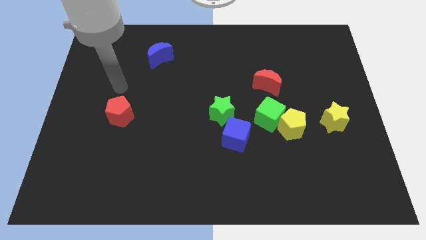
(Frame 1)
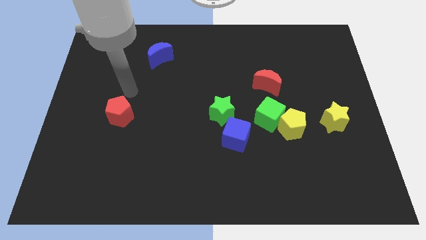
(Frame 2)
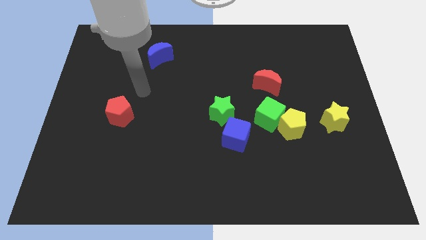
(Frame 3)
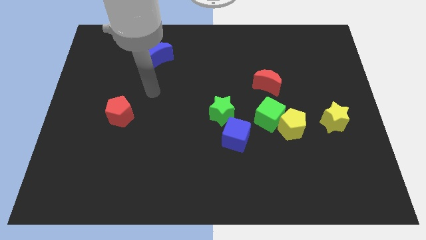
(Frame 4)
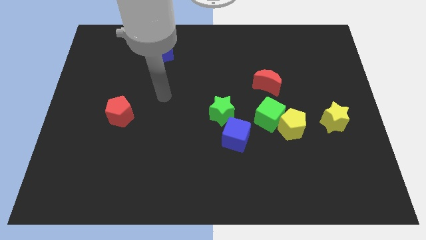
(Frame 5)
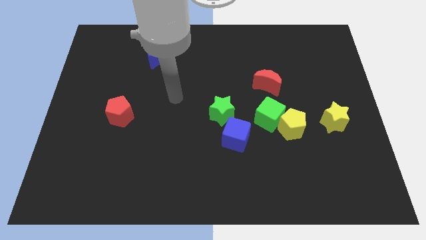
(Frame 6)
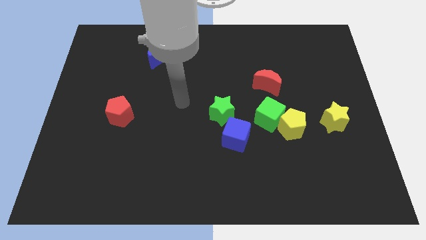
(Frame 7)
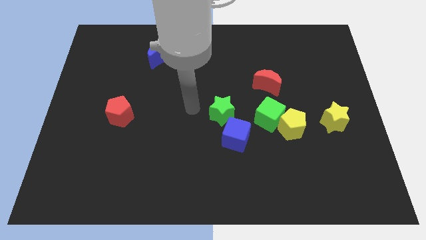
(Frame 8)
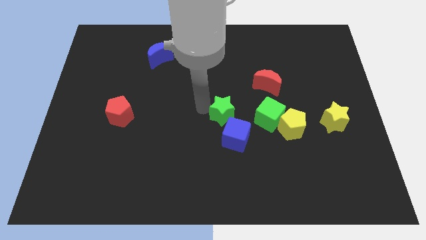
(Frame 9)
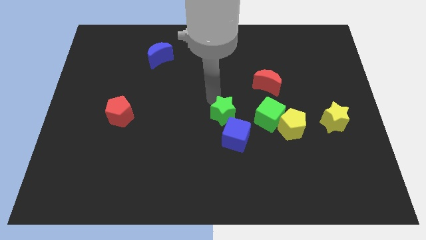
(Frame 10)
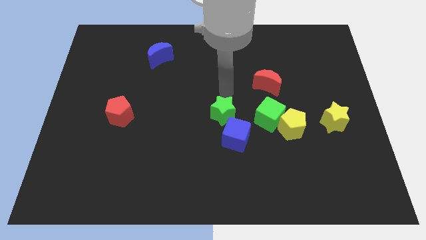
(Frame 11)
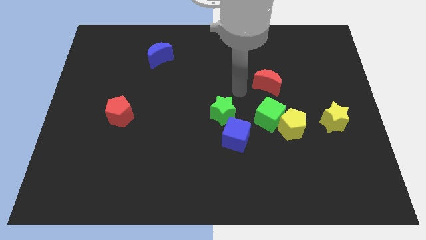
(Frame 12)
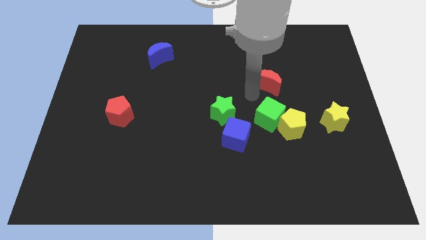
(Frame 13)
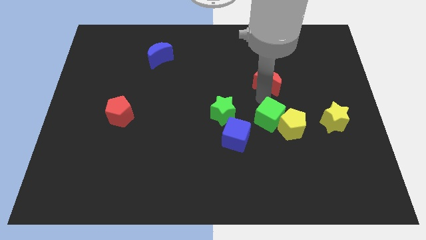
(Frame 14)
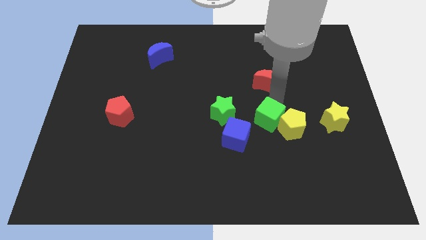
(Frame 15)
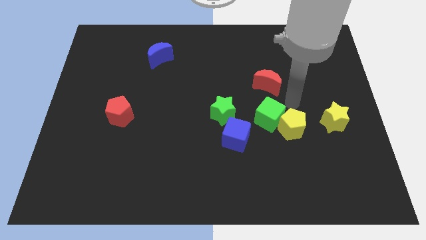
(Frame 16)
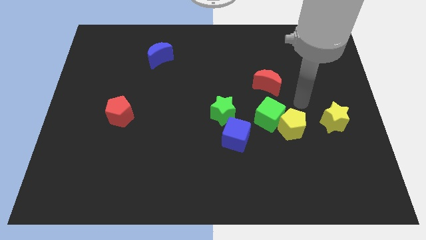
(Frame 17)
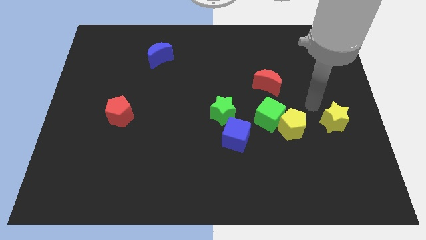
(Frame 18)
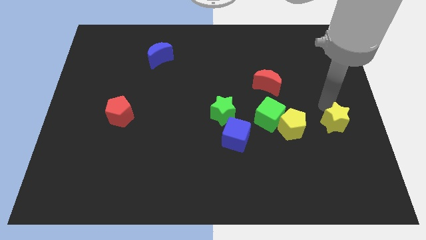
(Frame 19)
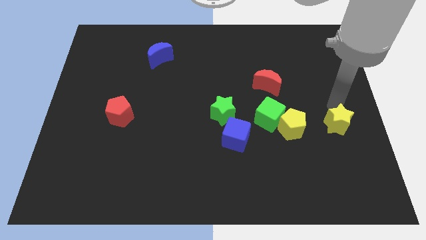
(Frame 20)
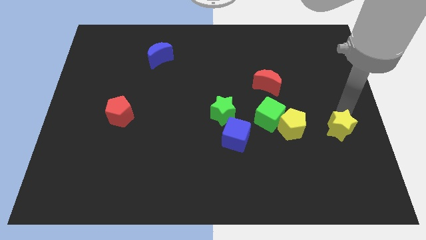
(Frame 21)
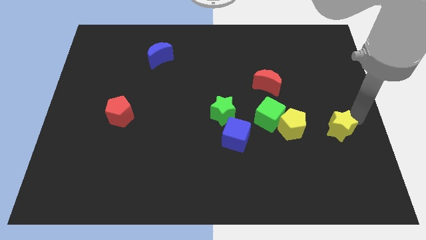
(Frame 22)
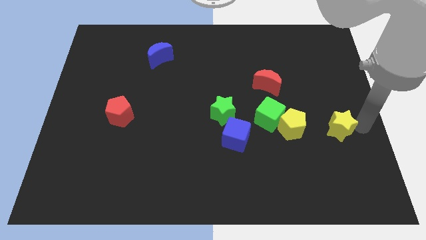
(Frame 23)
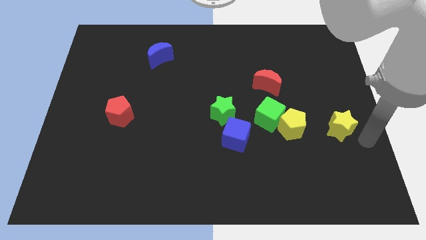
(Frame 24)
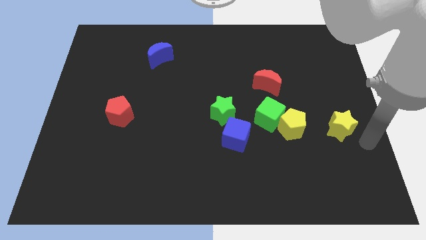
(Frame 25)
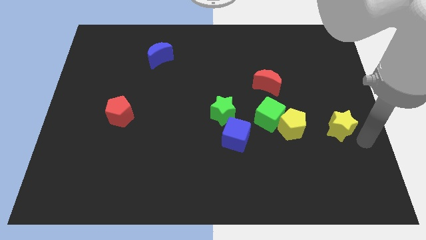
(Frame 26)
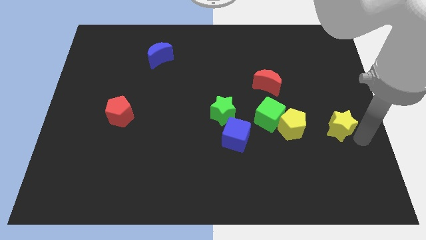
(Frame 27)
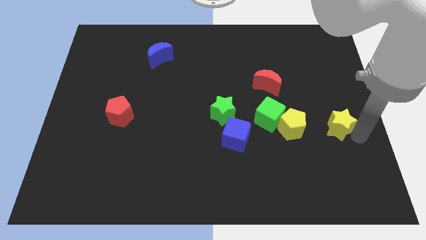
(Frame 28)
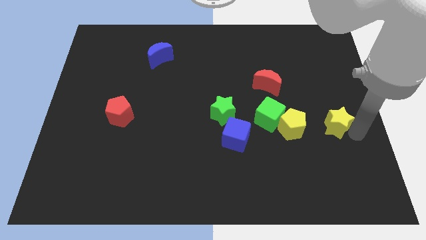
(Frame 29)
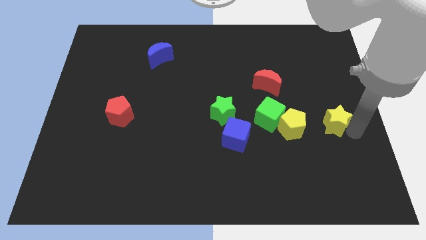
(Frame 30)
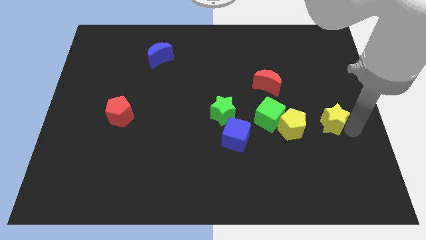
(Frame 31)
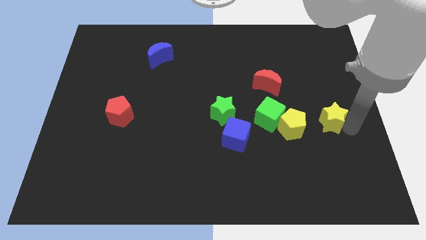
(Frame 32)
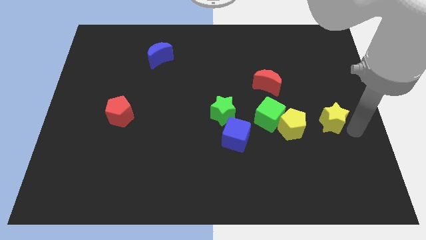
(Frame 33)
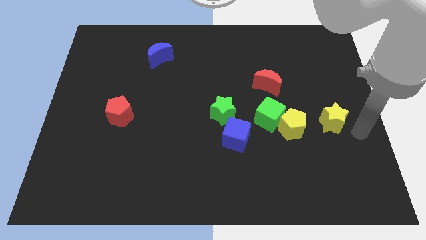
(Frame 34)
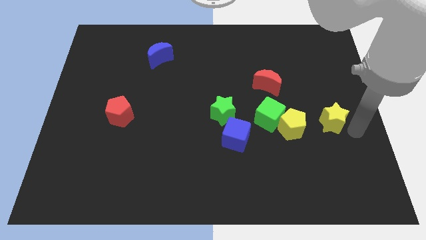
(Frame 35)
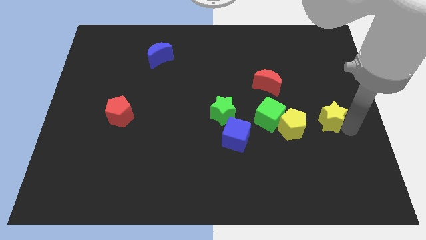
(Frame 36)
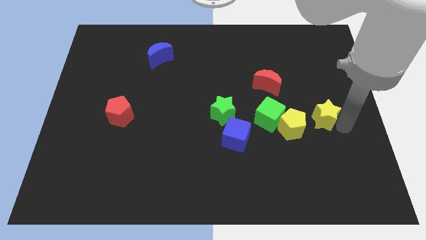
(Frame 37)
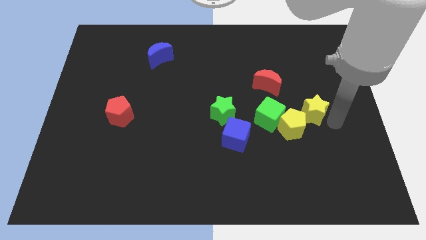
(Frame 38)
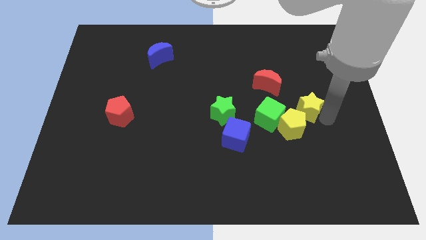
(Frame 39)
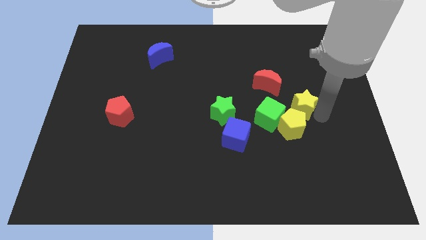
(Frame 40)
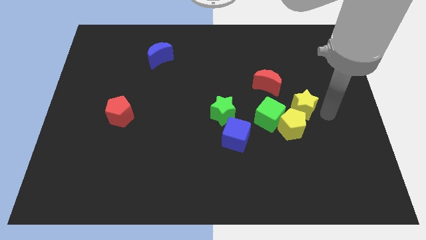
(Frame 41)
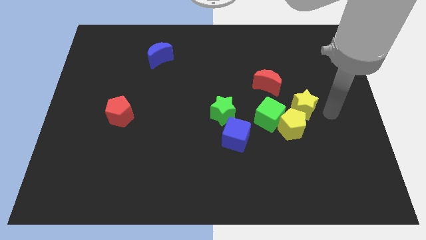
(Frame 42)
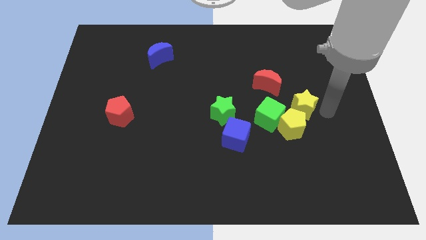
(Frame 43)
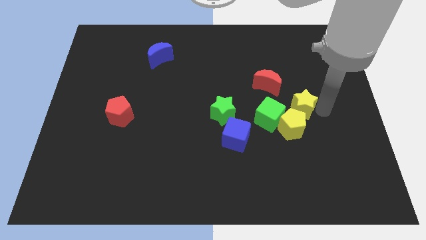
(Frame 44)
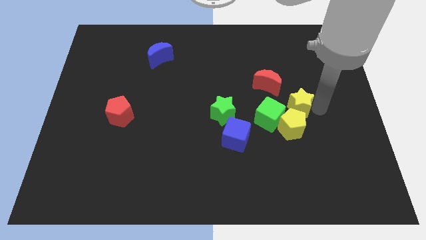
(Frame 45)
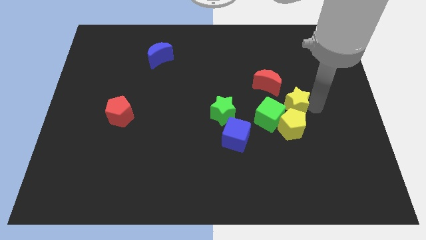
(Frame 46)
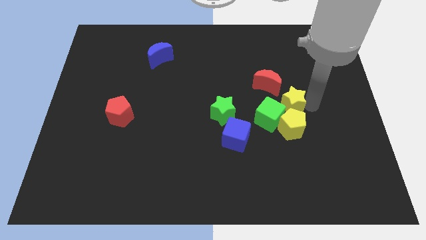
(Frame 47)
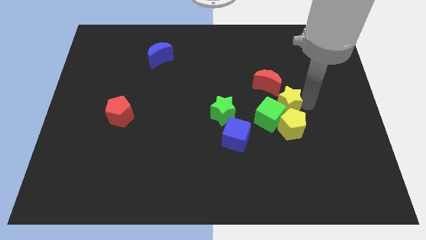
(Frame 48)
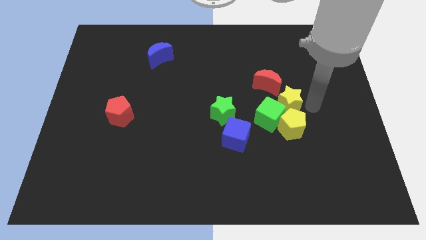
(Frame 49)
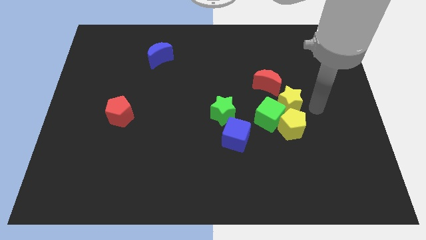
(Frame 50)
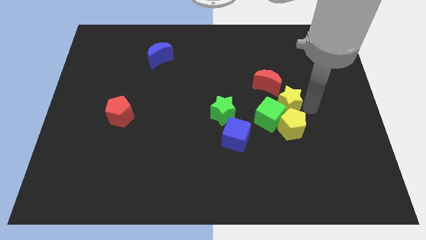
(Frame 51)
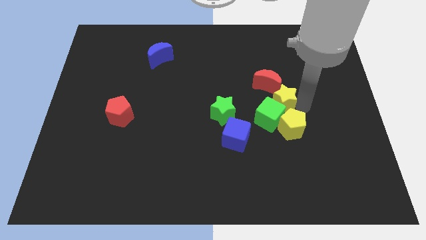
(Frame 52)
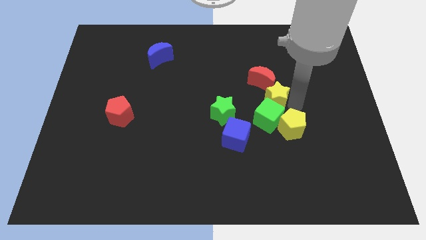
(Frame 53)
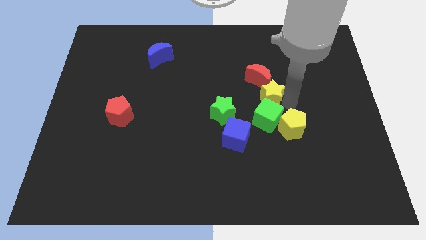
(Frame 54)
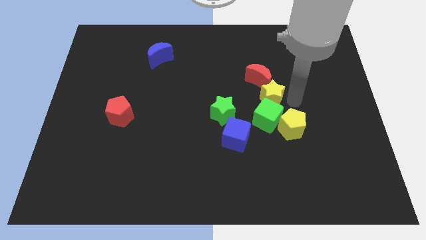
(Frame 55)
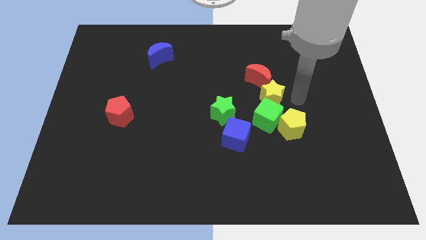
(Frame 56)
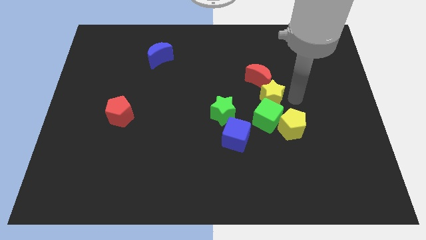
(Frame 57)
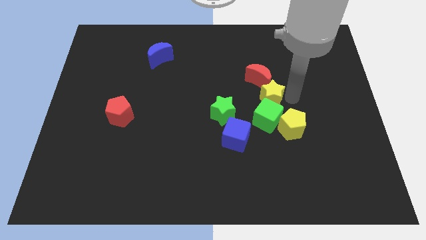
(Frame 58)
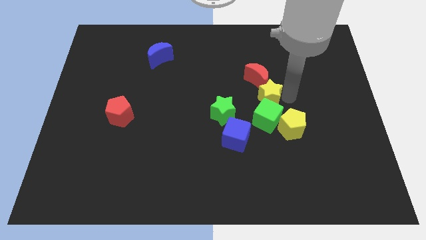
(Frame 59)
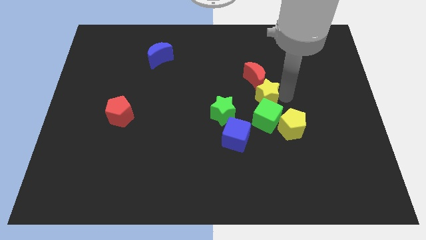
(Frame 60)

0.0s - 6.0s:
slide the yellow star to the middle

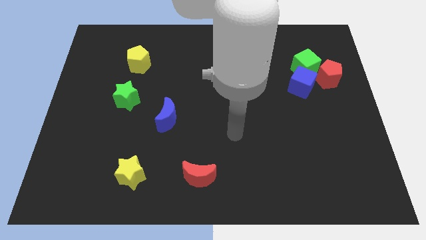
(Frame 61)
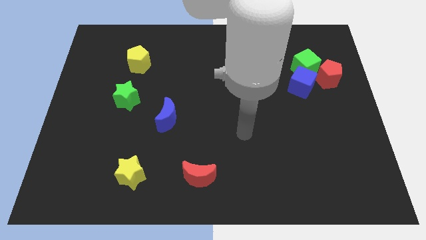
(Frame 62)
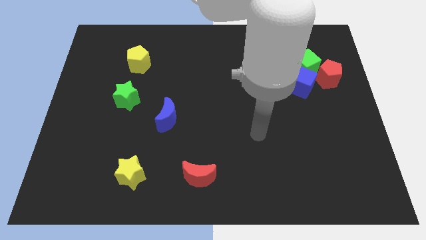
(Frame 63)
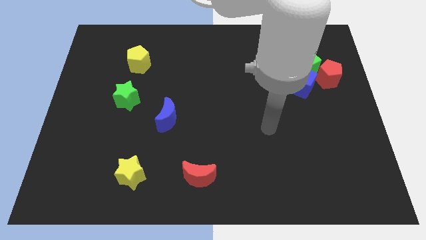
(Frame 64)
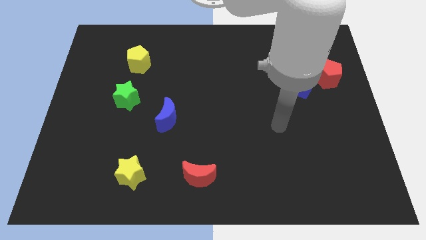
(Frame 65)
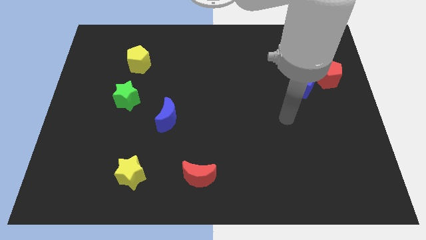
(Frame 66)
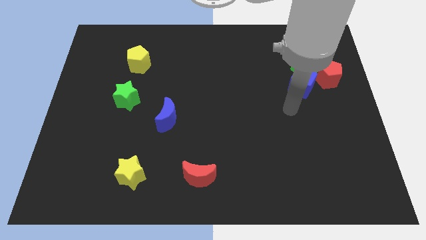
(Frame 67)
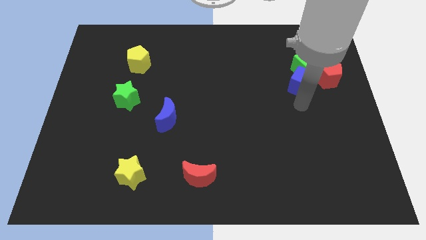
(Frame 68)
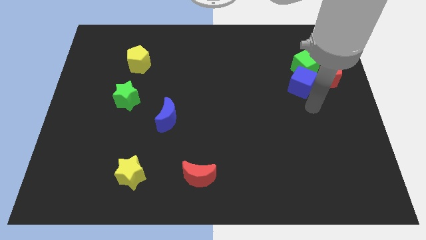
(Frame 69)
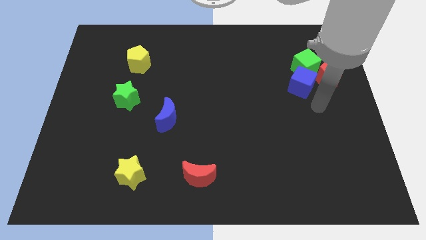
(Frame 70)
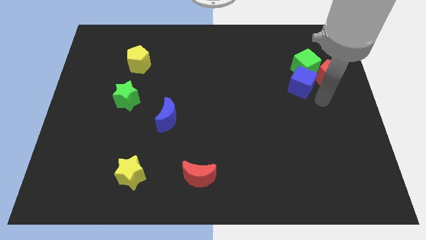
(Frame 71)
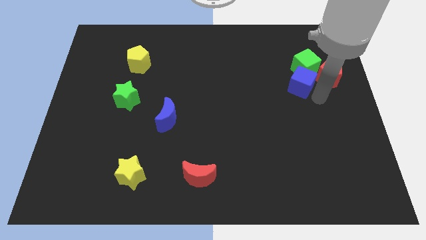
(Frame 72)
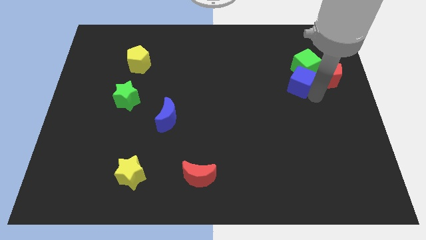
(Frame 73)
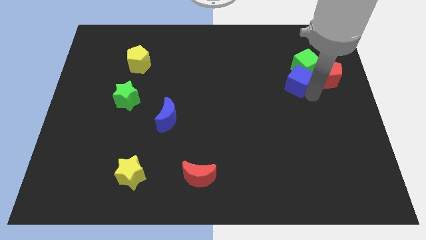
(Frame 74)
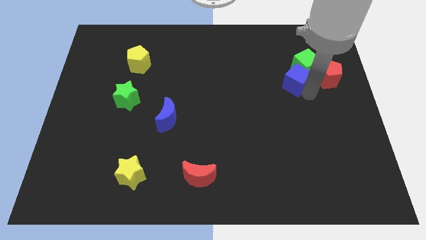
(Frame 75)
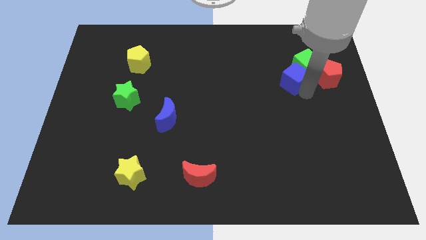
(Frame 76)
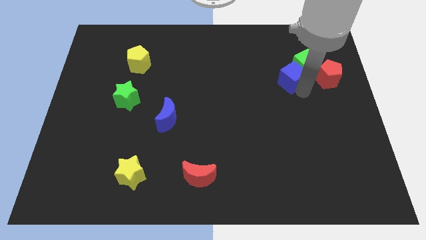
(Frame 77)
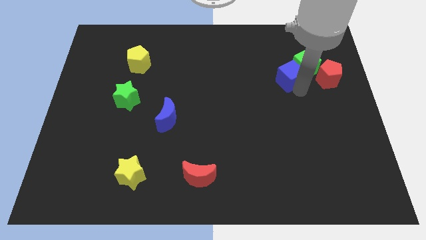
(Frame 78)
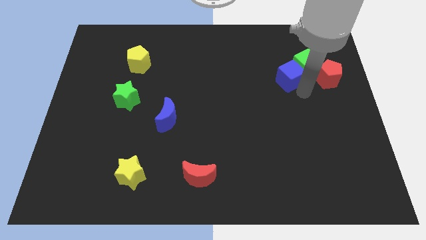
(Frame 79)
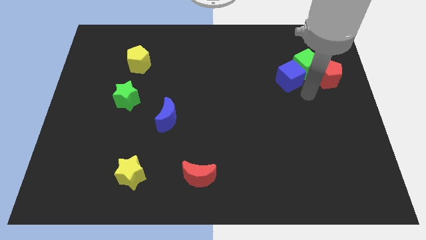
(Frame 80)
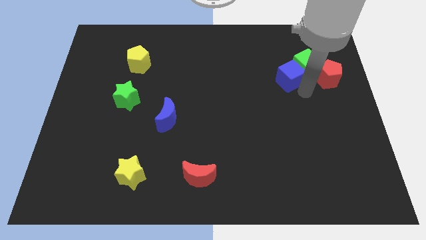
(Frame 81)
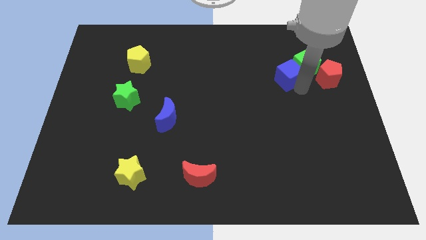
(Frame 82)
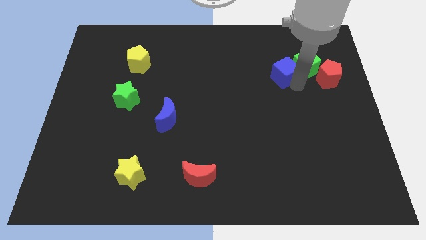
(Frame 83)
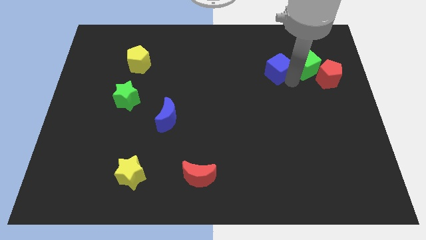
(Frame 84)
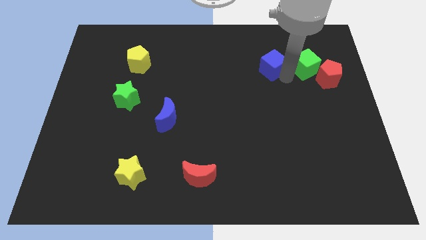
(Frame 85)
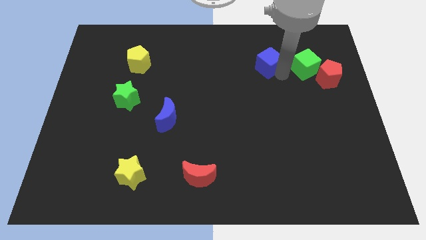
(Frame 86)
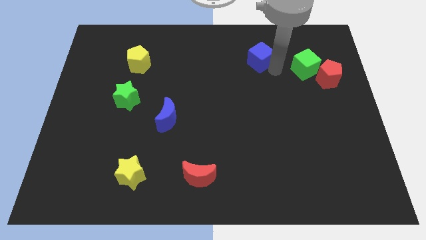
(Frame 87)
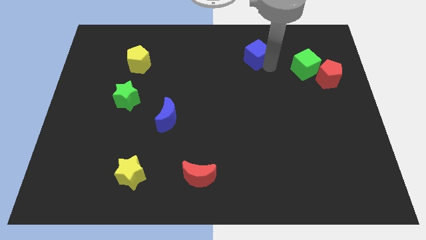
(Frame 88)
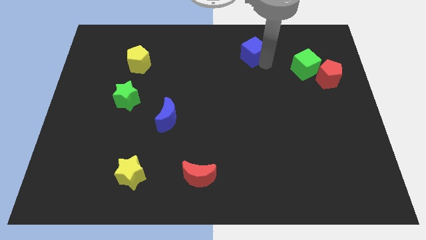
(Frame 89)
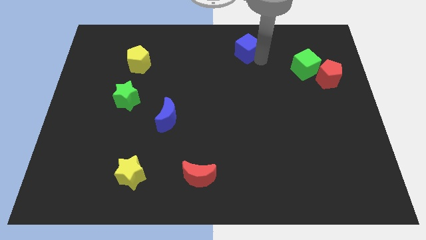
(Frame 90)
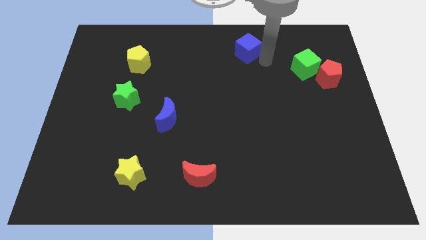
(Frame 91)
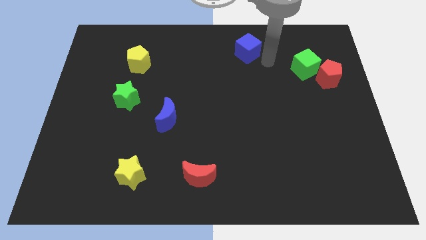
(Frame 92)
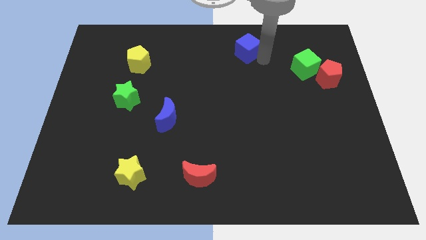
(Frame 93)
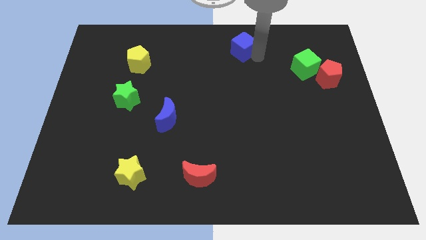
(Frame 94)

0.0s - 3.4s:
put the blue cube to the towards your base
